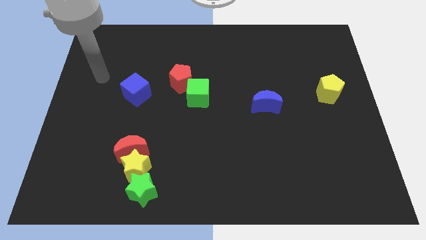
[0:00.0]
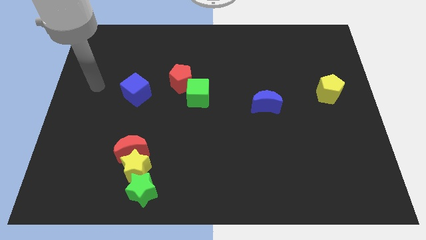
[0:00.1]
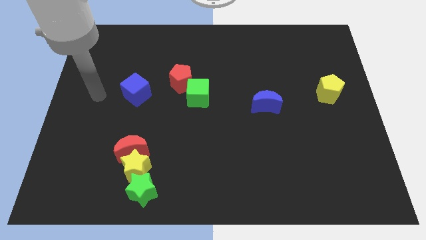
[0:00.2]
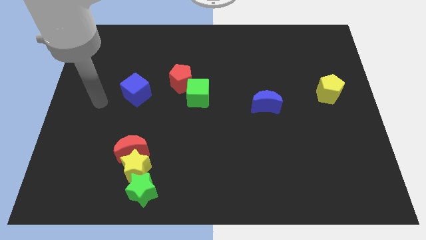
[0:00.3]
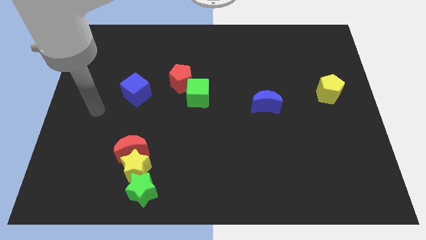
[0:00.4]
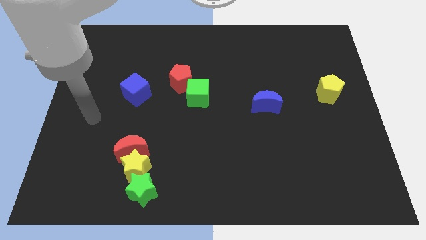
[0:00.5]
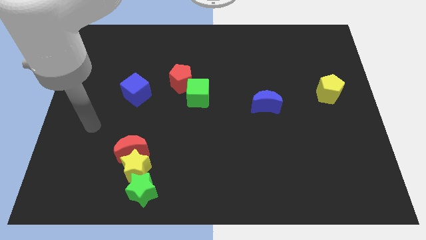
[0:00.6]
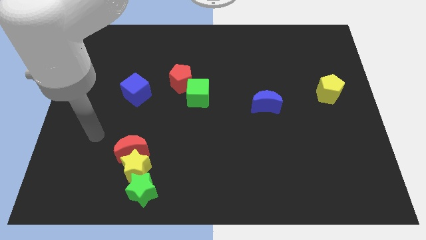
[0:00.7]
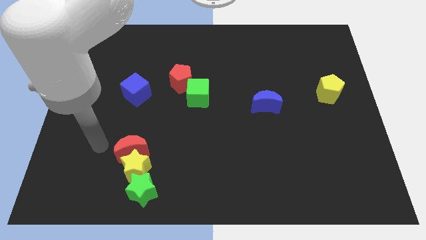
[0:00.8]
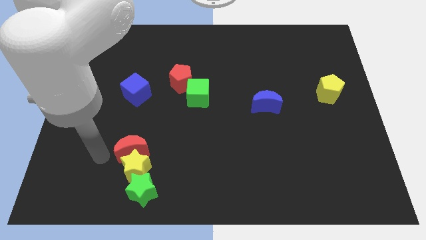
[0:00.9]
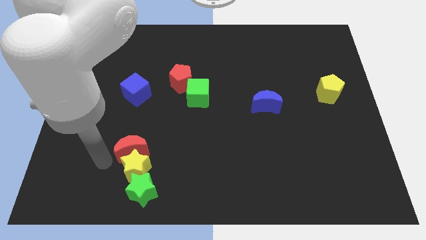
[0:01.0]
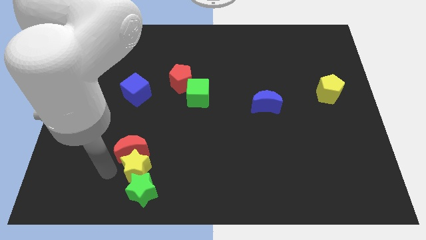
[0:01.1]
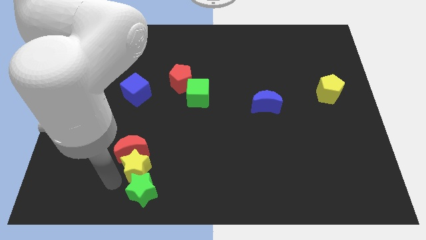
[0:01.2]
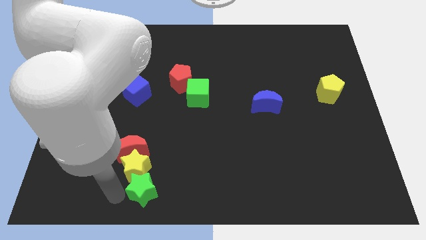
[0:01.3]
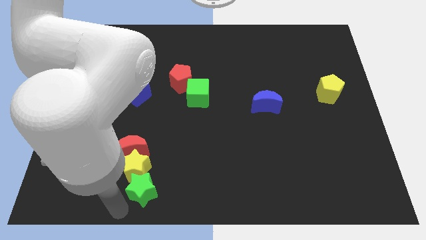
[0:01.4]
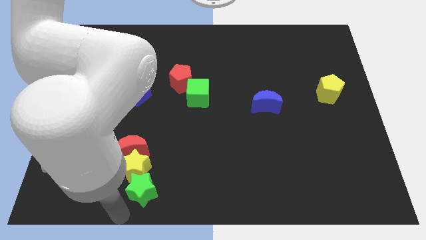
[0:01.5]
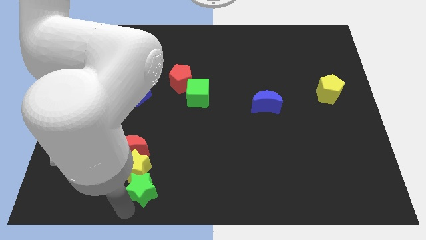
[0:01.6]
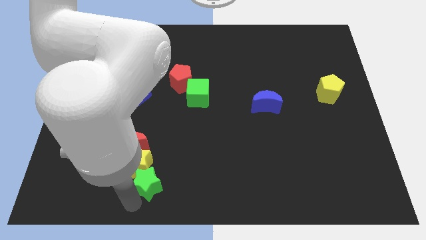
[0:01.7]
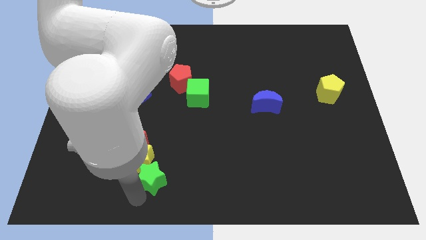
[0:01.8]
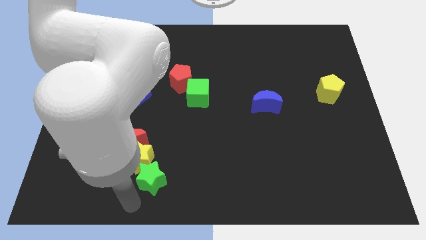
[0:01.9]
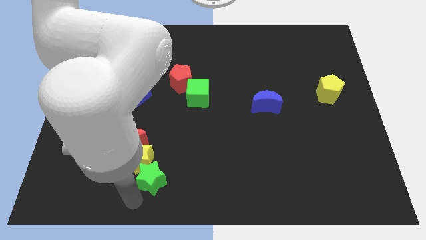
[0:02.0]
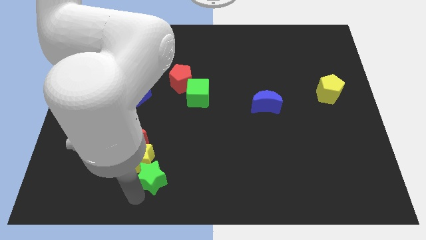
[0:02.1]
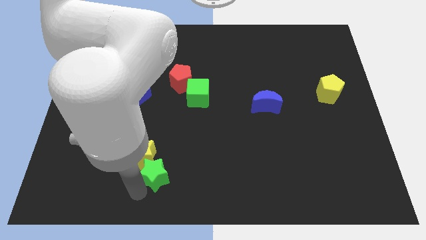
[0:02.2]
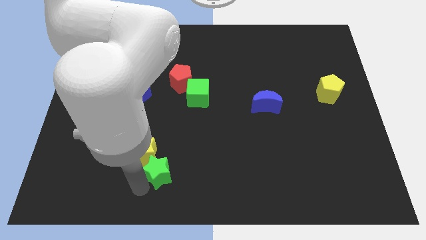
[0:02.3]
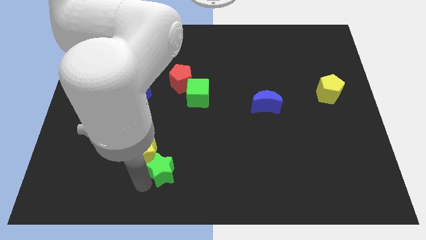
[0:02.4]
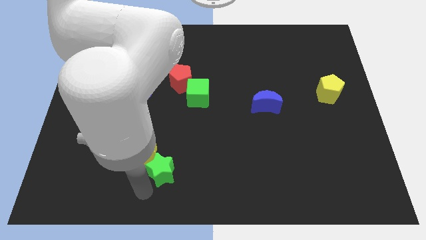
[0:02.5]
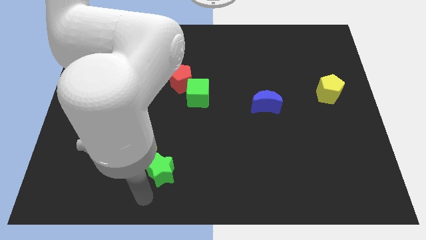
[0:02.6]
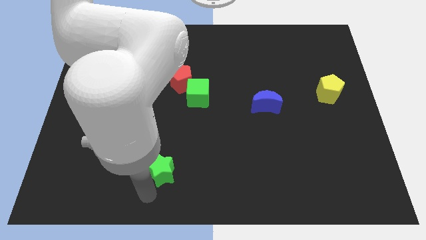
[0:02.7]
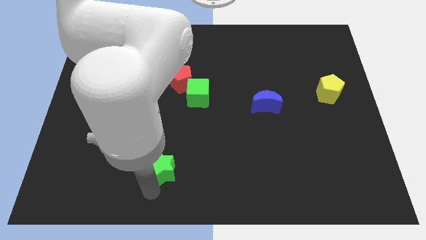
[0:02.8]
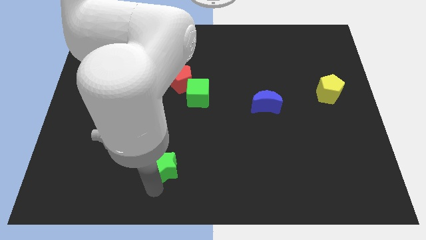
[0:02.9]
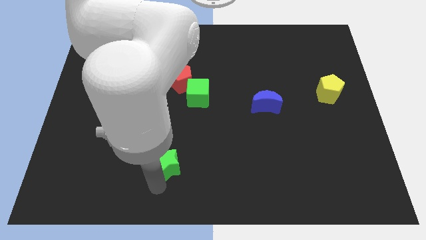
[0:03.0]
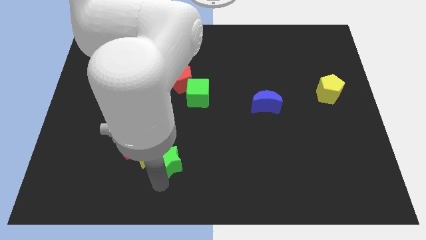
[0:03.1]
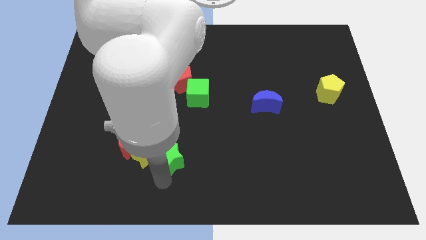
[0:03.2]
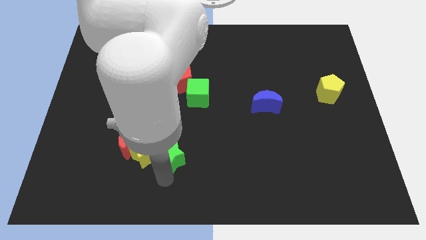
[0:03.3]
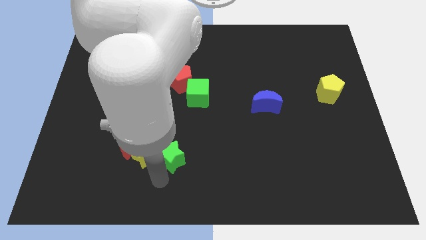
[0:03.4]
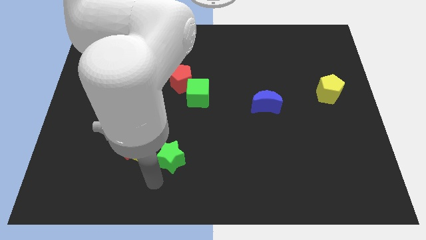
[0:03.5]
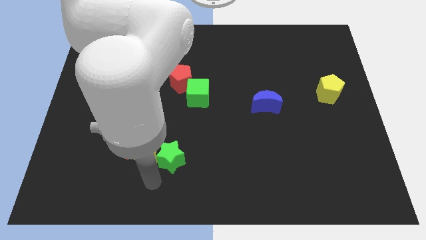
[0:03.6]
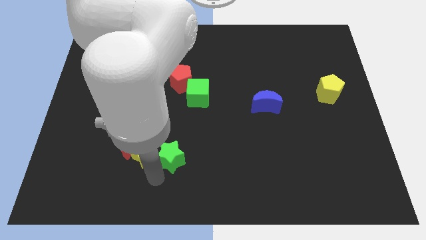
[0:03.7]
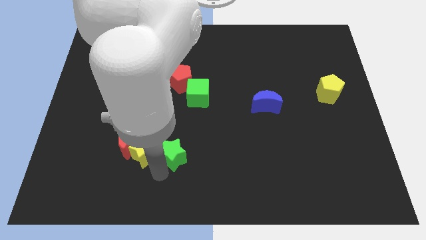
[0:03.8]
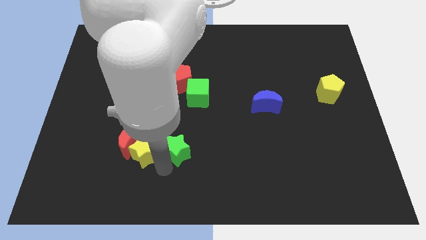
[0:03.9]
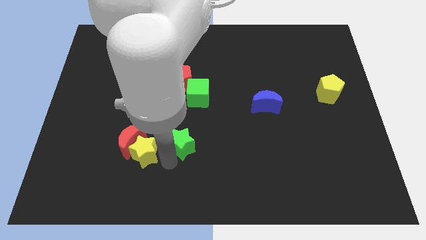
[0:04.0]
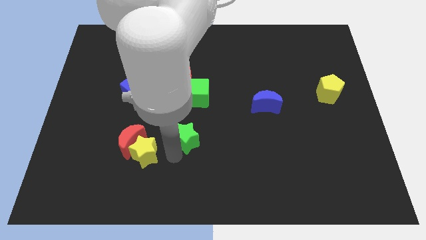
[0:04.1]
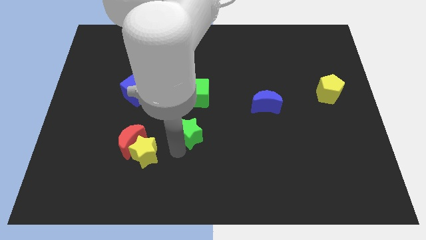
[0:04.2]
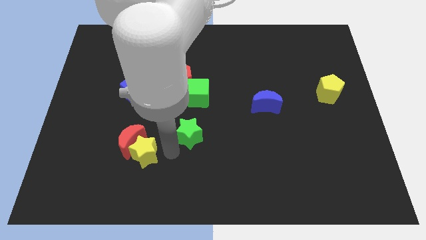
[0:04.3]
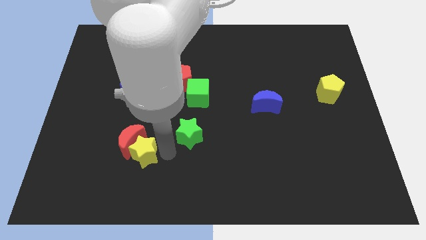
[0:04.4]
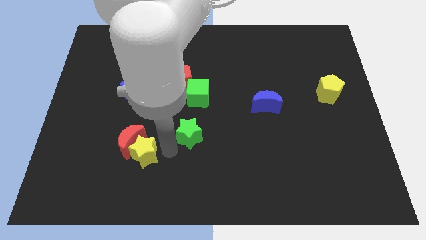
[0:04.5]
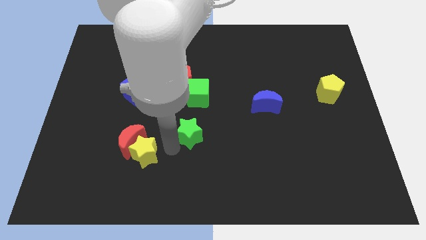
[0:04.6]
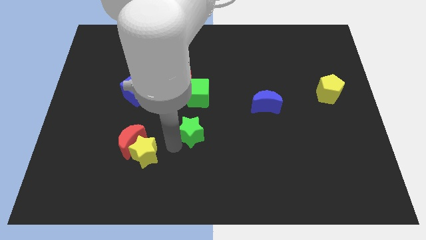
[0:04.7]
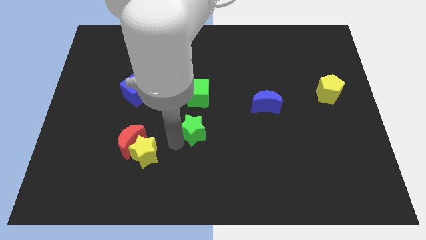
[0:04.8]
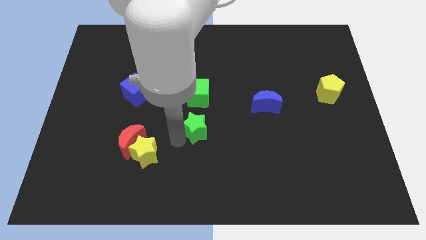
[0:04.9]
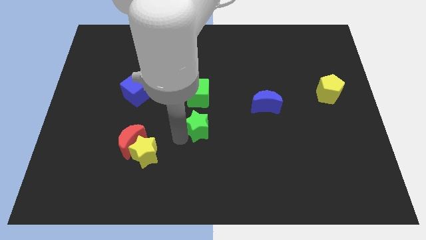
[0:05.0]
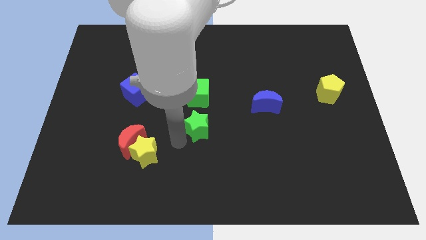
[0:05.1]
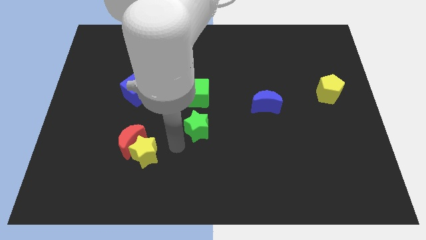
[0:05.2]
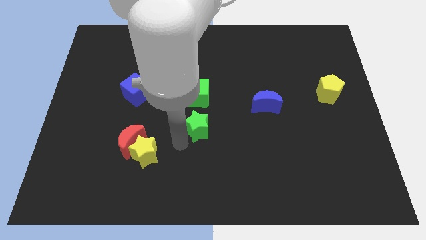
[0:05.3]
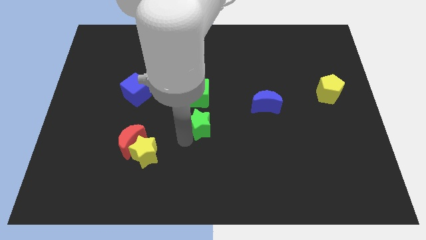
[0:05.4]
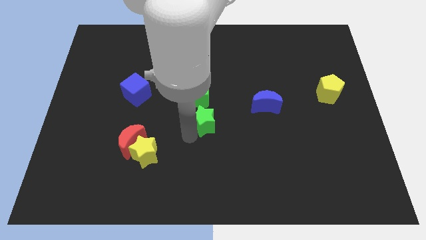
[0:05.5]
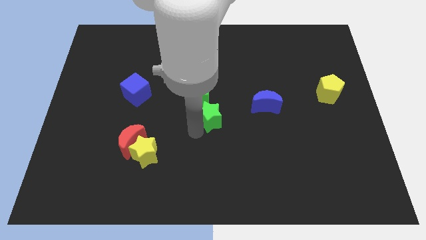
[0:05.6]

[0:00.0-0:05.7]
move the green star to the left of the blue moon

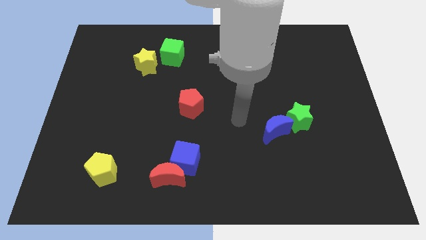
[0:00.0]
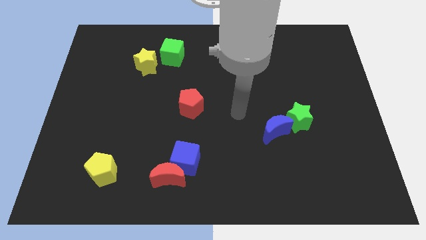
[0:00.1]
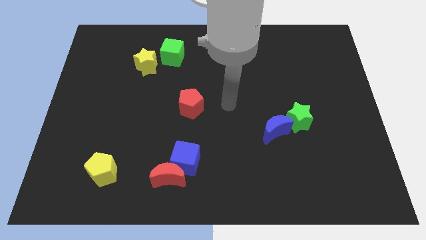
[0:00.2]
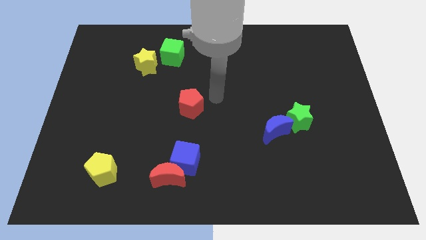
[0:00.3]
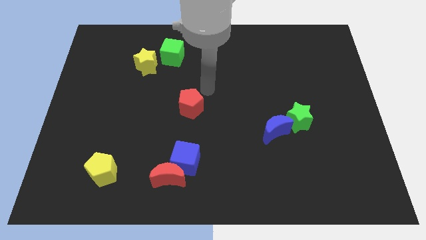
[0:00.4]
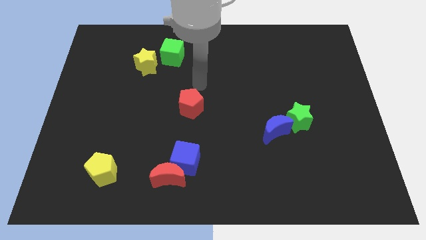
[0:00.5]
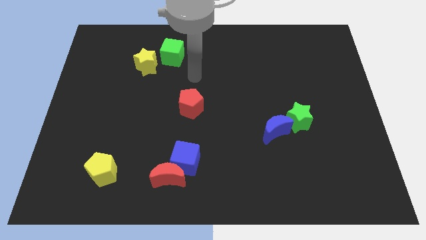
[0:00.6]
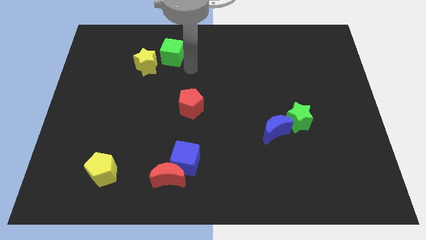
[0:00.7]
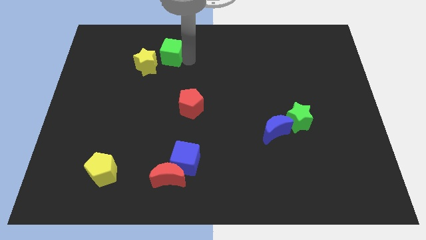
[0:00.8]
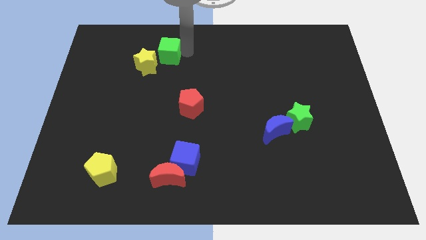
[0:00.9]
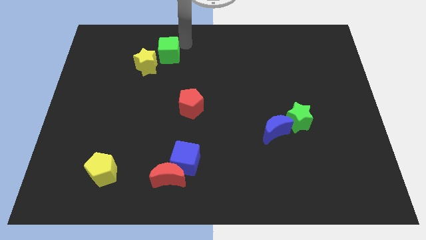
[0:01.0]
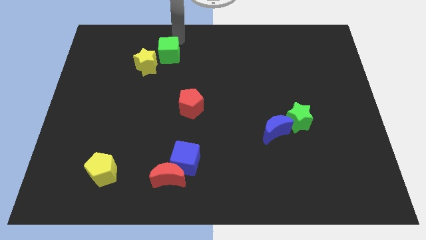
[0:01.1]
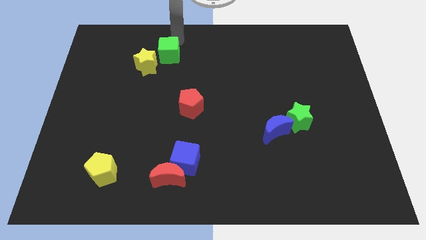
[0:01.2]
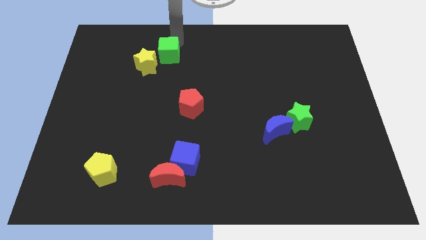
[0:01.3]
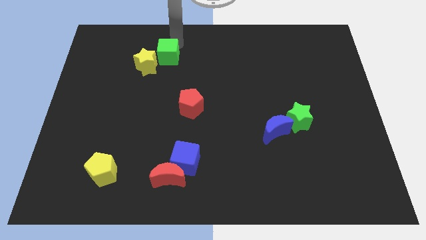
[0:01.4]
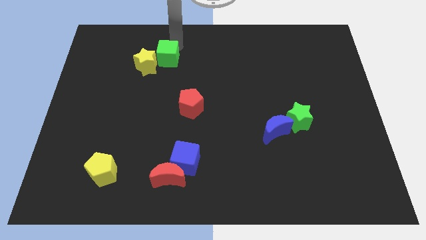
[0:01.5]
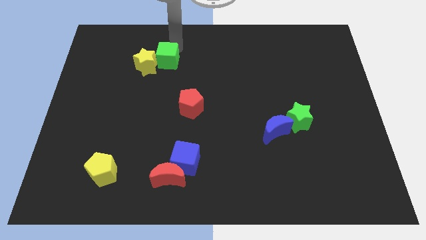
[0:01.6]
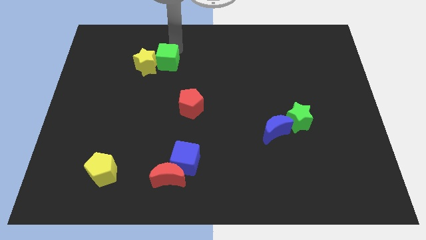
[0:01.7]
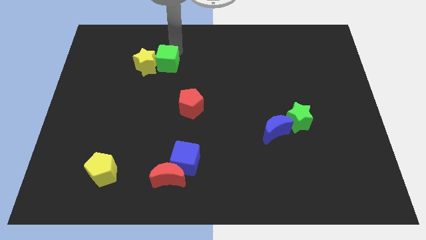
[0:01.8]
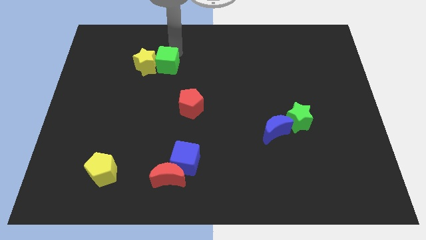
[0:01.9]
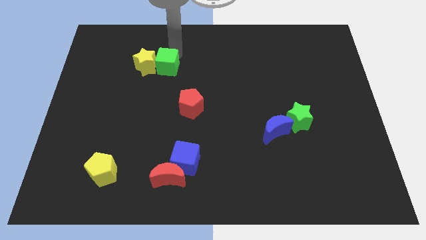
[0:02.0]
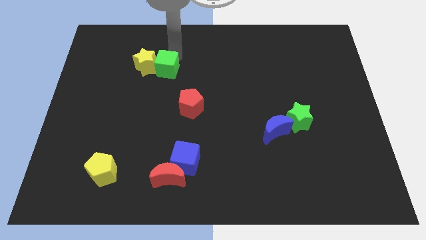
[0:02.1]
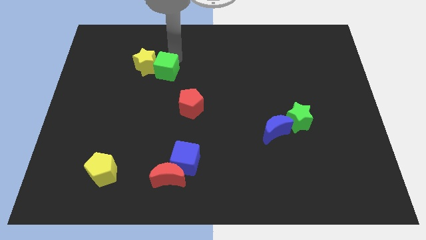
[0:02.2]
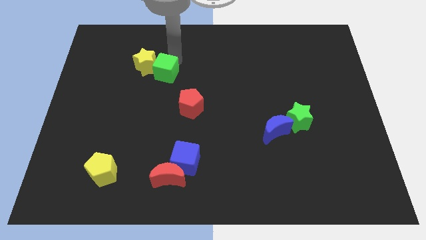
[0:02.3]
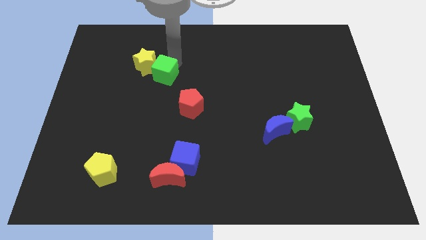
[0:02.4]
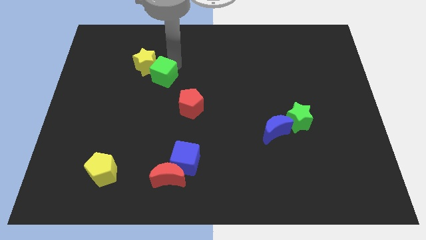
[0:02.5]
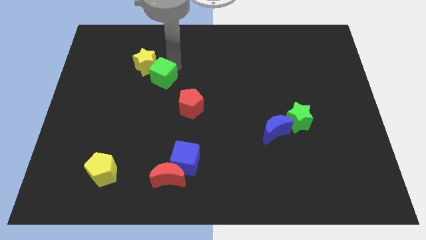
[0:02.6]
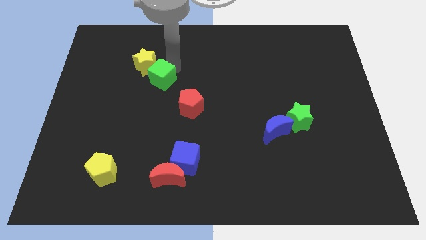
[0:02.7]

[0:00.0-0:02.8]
slide the green cube to the bottom of the yellow star
